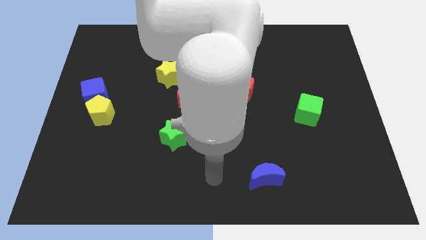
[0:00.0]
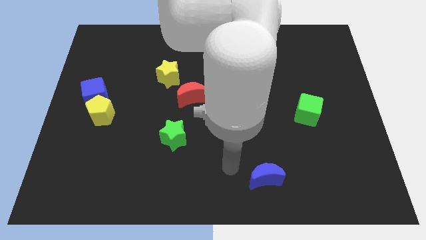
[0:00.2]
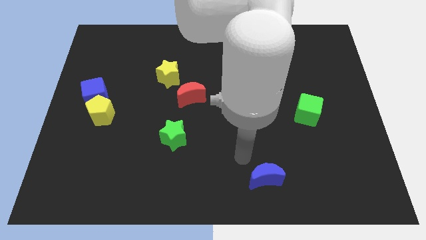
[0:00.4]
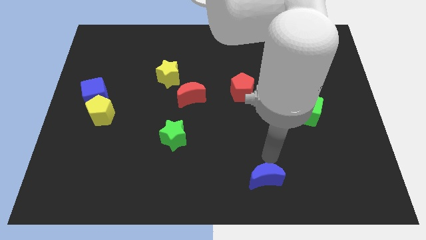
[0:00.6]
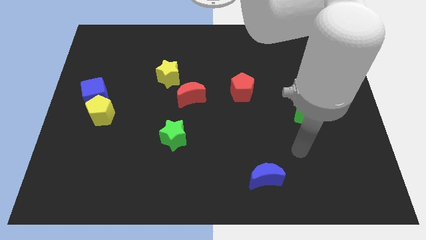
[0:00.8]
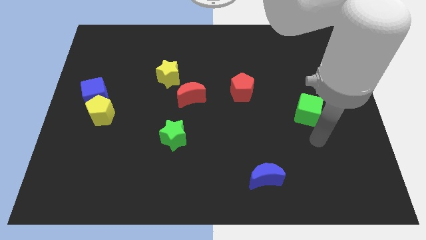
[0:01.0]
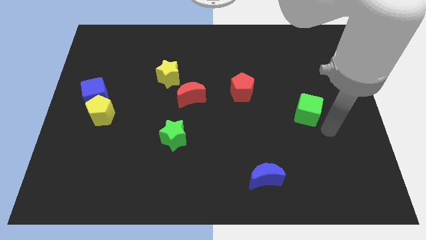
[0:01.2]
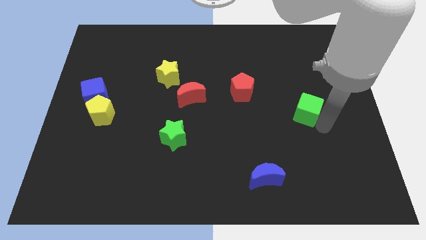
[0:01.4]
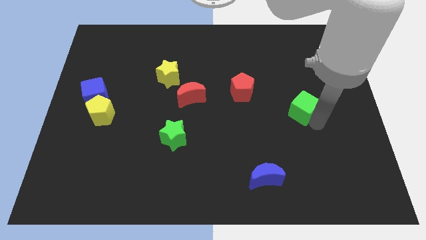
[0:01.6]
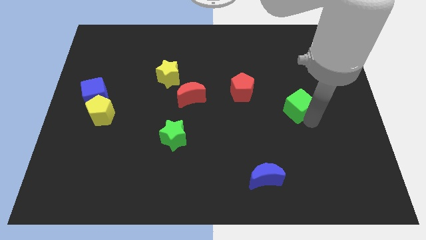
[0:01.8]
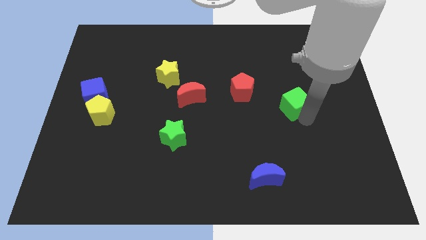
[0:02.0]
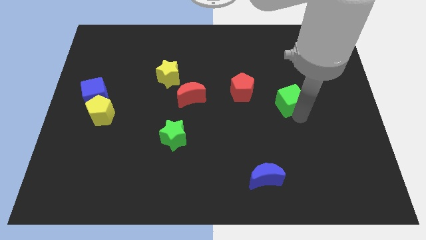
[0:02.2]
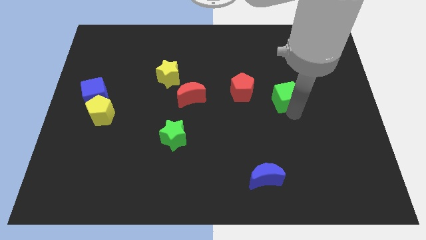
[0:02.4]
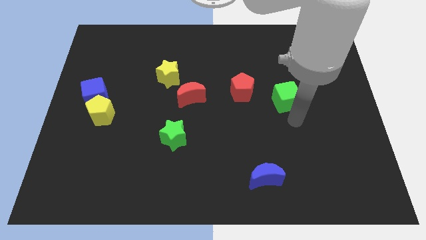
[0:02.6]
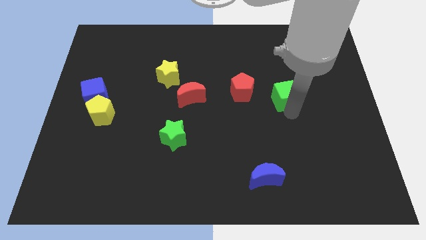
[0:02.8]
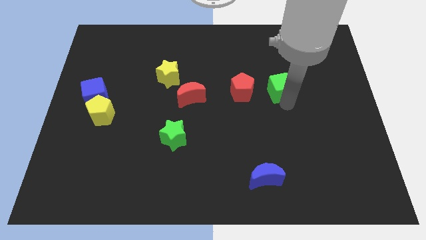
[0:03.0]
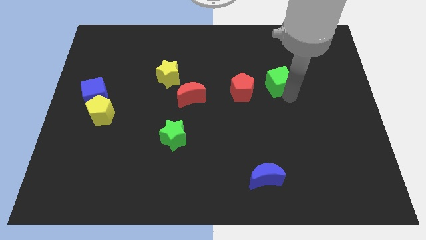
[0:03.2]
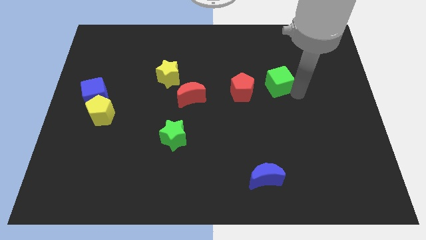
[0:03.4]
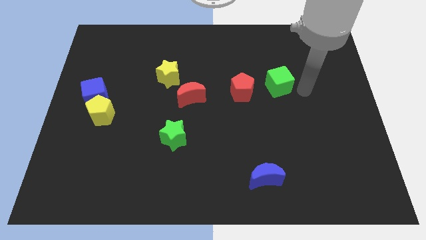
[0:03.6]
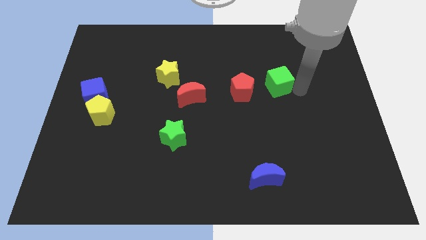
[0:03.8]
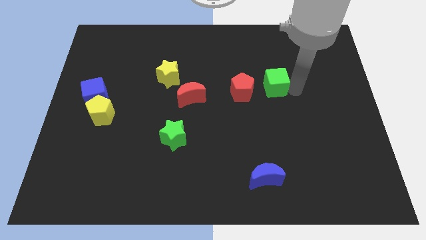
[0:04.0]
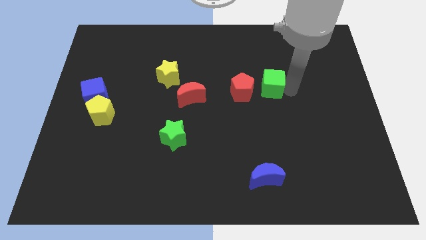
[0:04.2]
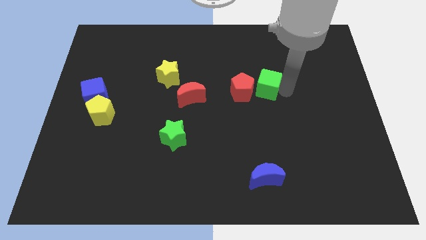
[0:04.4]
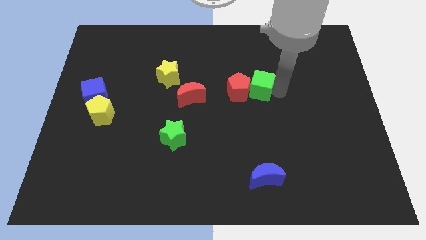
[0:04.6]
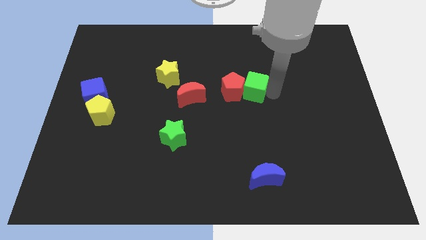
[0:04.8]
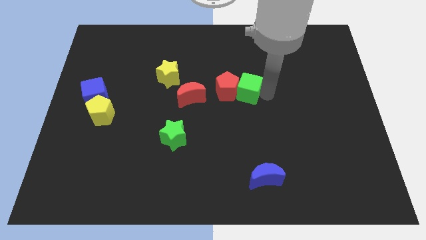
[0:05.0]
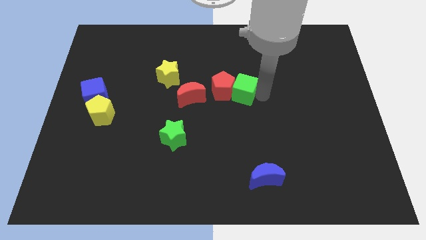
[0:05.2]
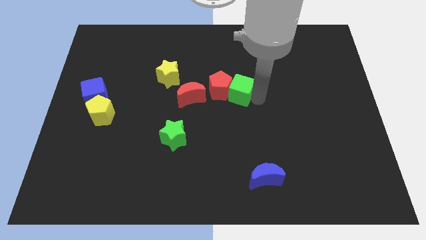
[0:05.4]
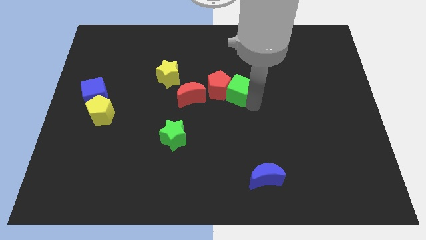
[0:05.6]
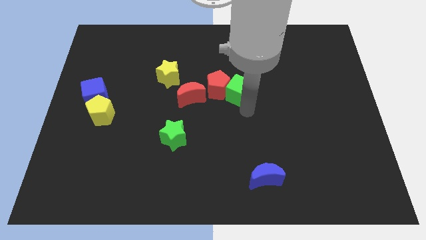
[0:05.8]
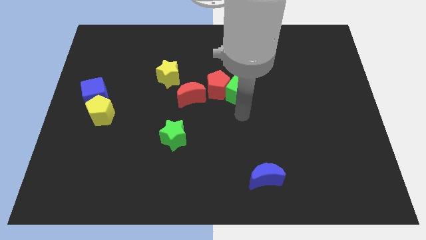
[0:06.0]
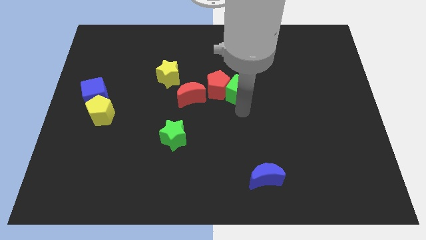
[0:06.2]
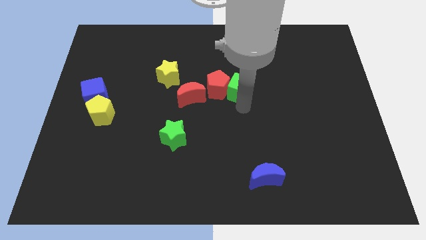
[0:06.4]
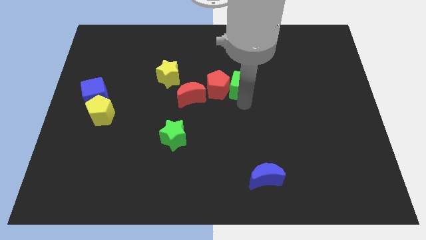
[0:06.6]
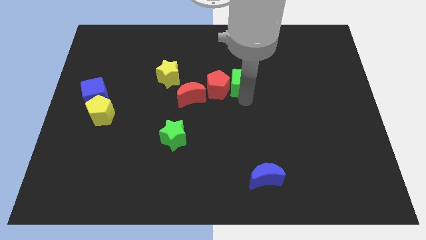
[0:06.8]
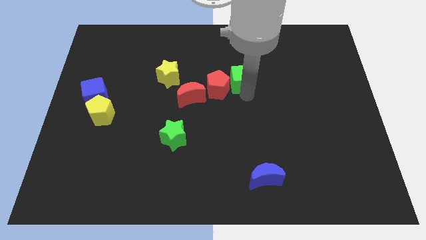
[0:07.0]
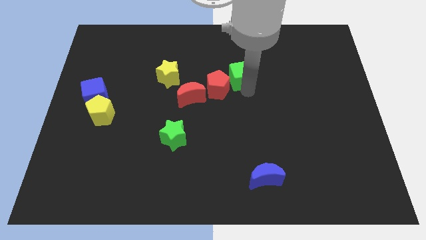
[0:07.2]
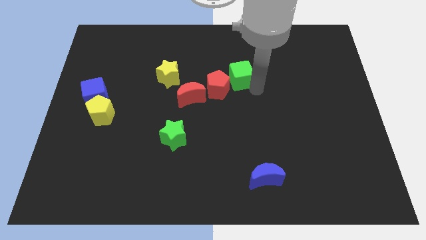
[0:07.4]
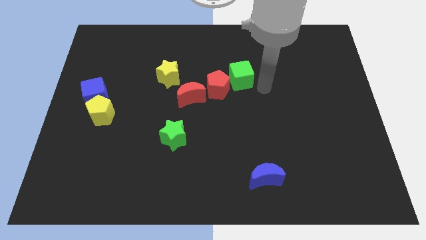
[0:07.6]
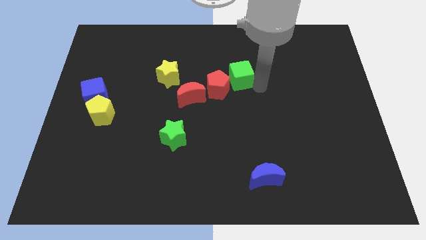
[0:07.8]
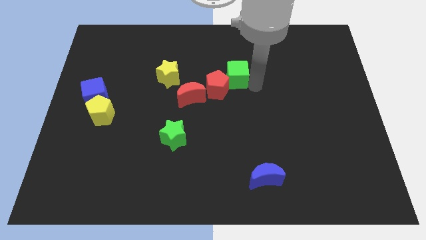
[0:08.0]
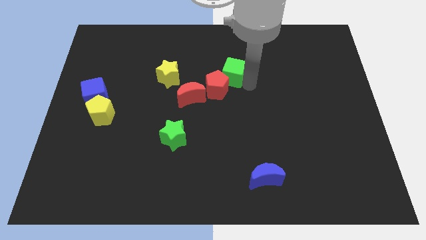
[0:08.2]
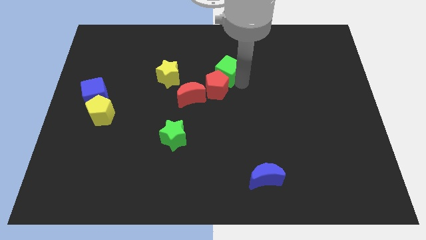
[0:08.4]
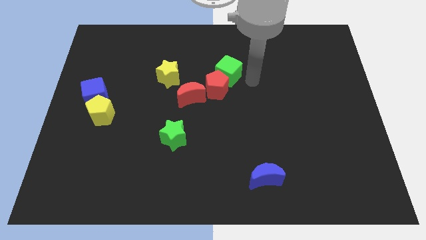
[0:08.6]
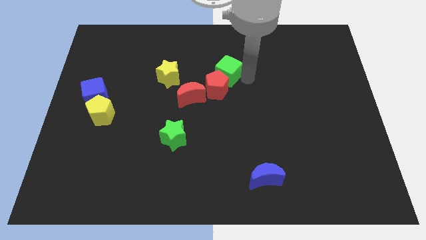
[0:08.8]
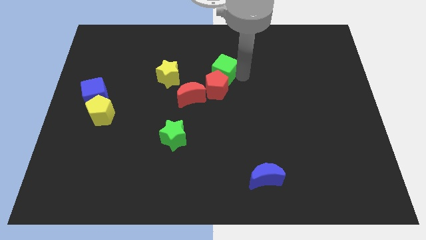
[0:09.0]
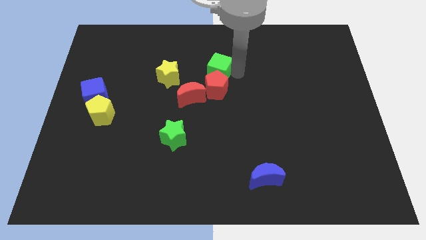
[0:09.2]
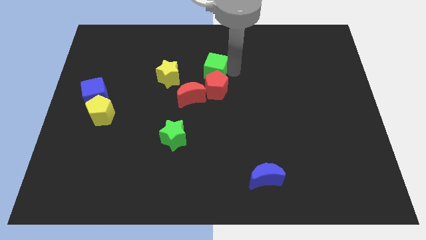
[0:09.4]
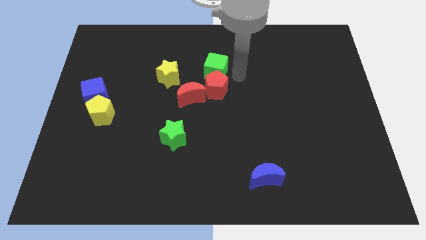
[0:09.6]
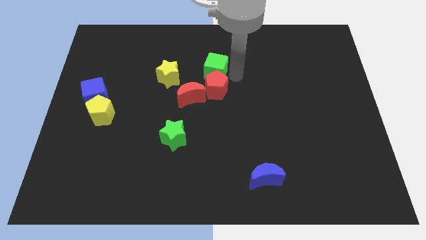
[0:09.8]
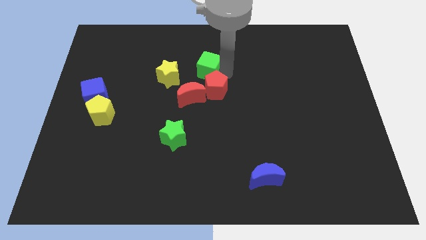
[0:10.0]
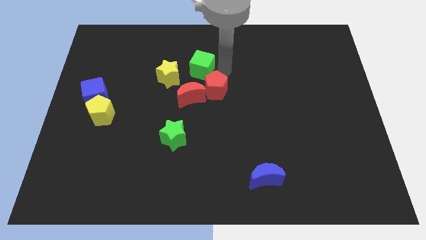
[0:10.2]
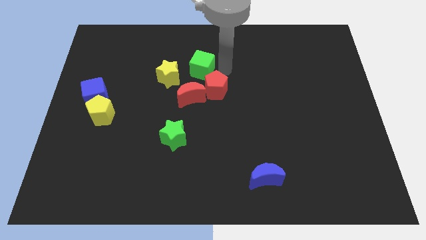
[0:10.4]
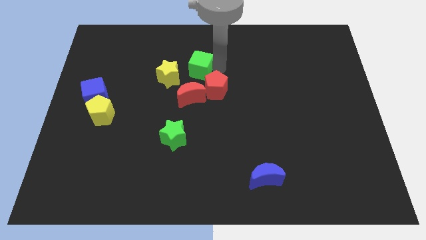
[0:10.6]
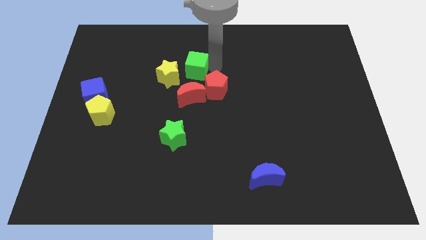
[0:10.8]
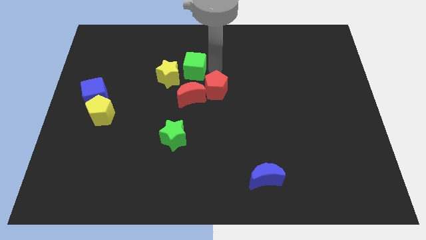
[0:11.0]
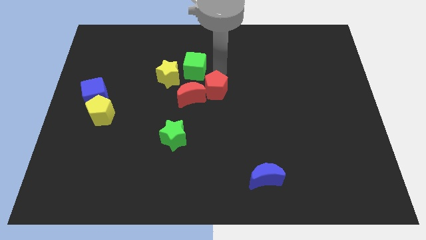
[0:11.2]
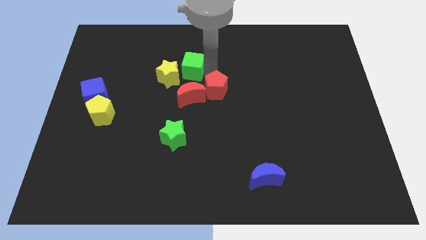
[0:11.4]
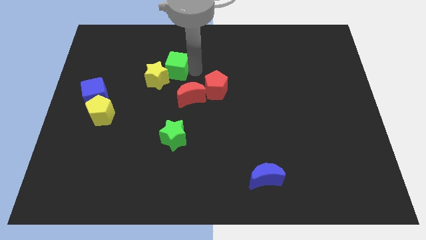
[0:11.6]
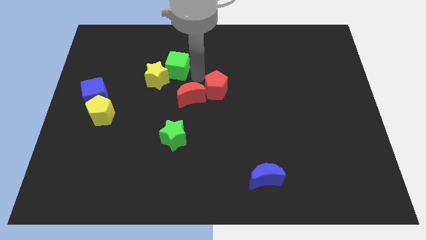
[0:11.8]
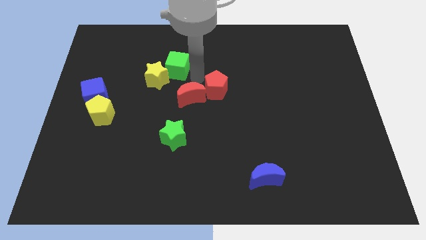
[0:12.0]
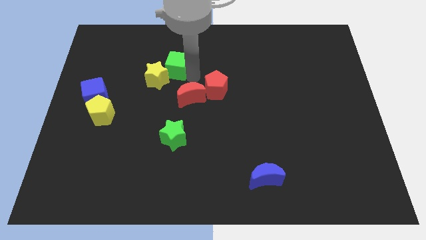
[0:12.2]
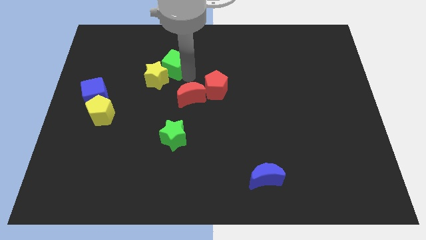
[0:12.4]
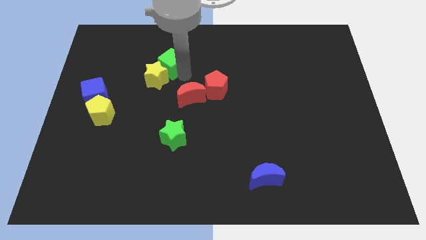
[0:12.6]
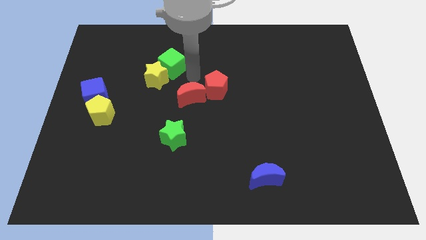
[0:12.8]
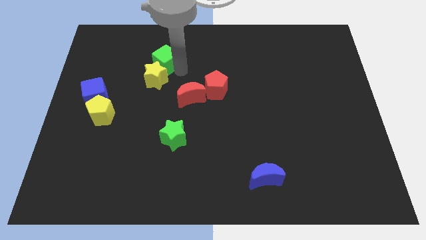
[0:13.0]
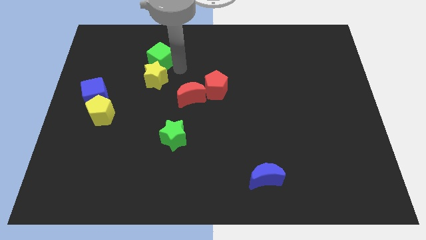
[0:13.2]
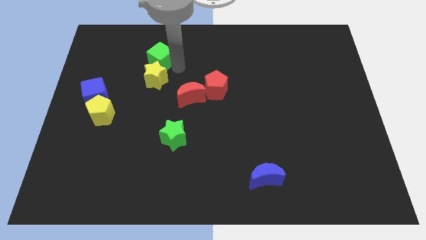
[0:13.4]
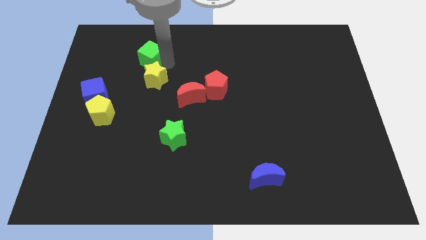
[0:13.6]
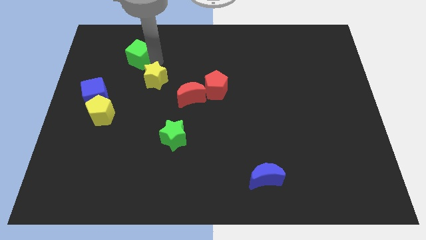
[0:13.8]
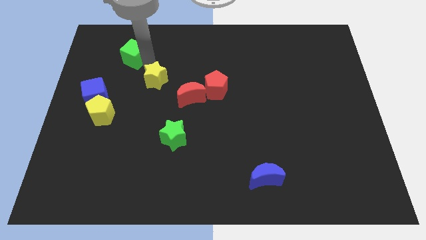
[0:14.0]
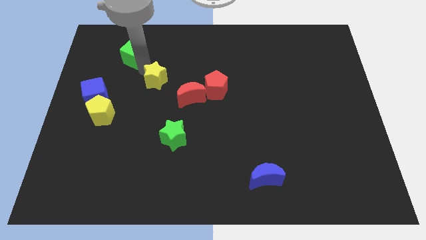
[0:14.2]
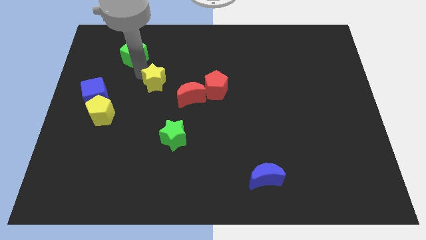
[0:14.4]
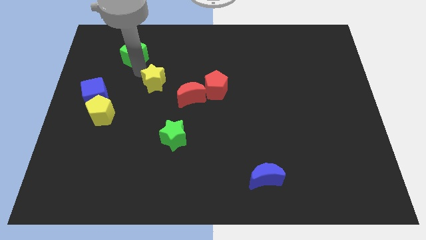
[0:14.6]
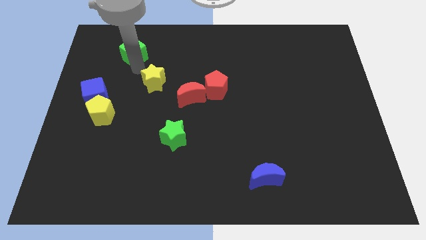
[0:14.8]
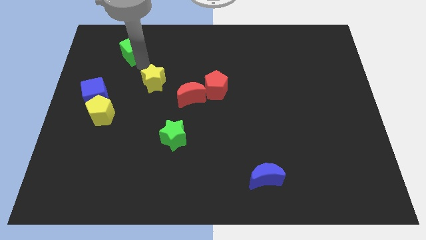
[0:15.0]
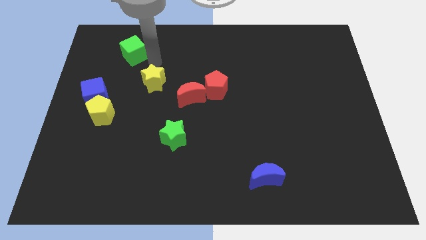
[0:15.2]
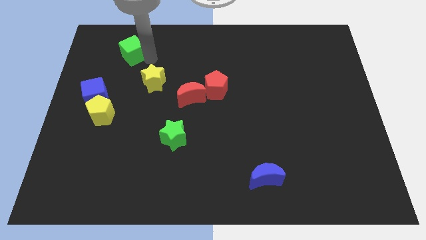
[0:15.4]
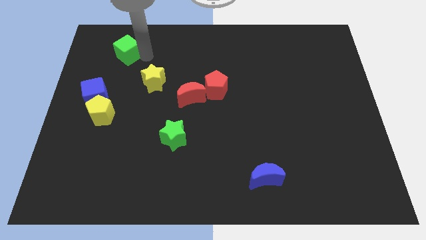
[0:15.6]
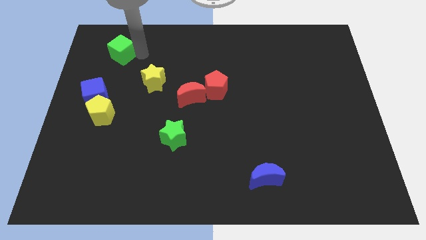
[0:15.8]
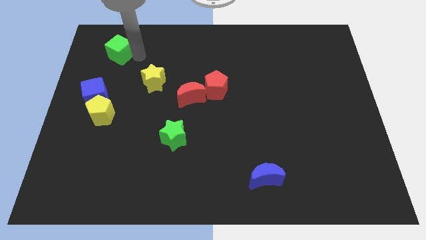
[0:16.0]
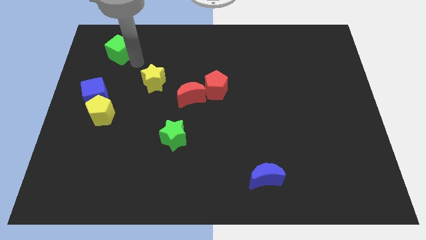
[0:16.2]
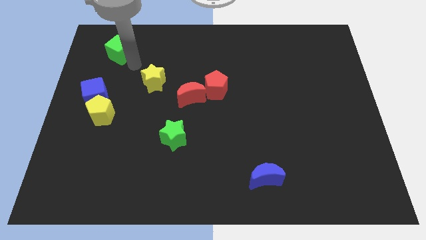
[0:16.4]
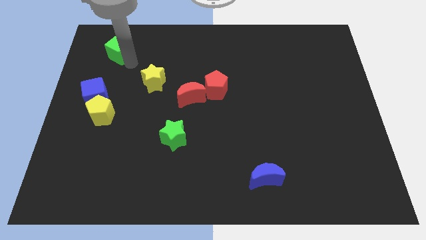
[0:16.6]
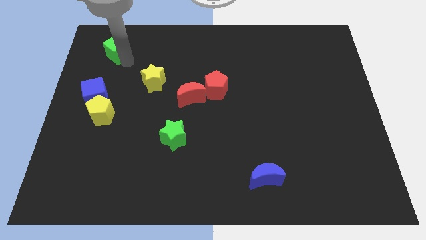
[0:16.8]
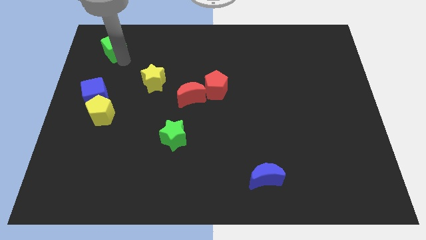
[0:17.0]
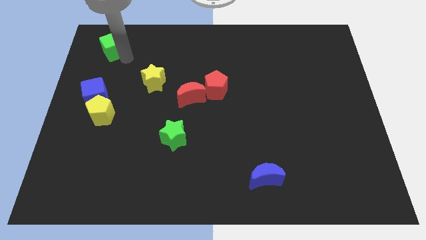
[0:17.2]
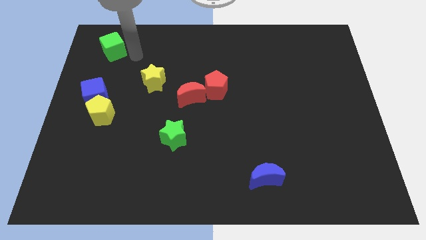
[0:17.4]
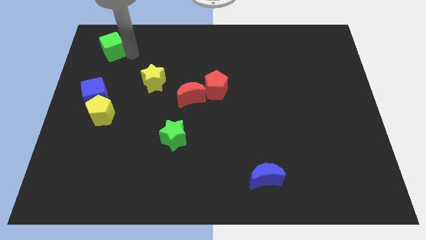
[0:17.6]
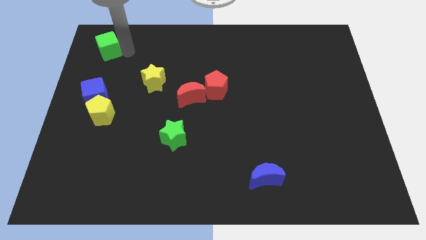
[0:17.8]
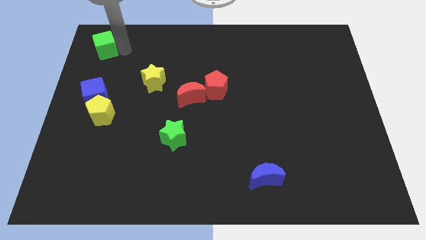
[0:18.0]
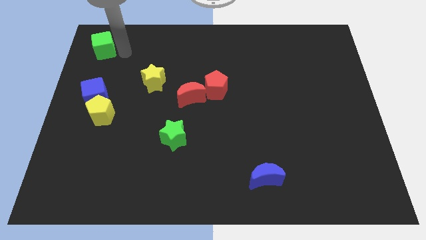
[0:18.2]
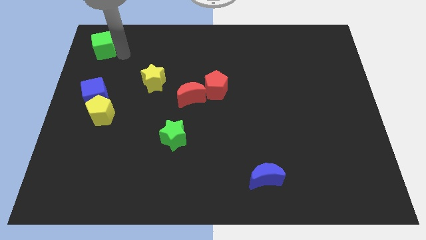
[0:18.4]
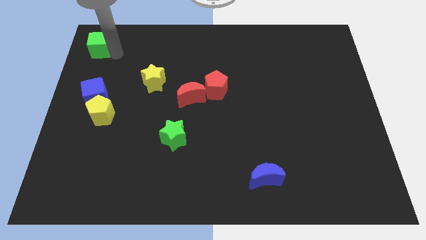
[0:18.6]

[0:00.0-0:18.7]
put the green cube to the top left corner
